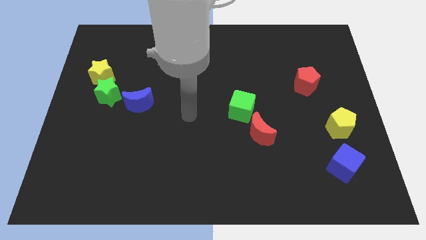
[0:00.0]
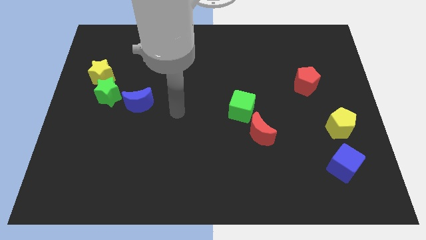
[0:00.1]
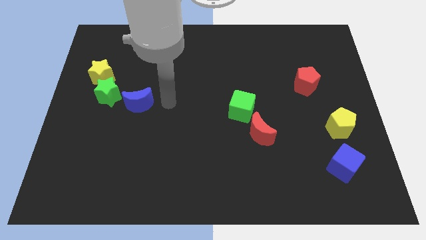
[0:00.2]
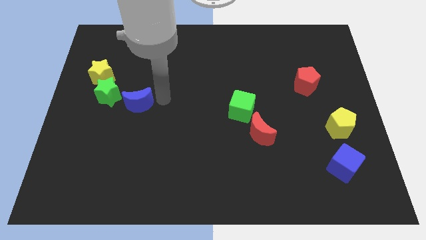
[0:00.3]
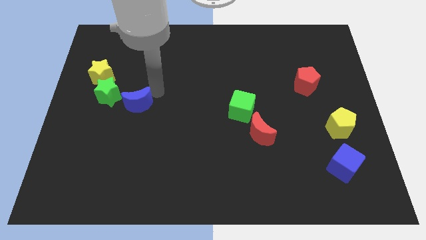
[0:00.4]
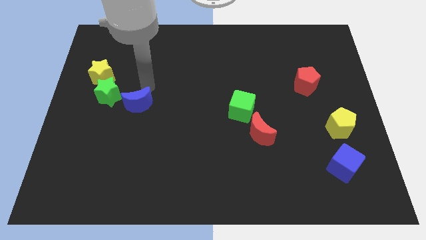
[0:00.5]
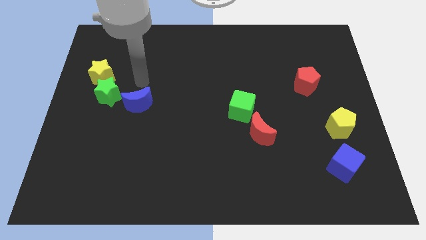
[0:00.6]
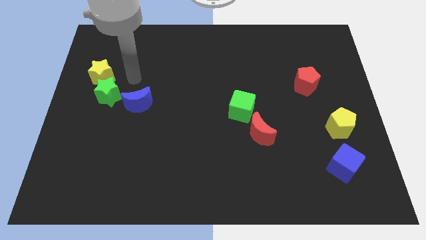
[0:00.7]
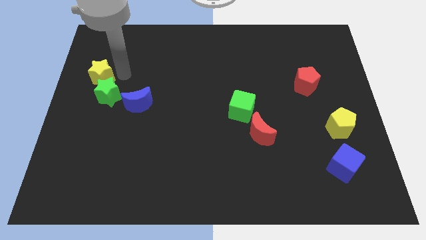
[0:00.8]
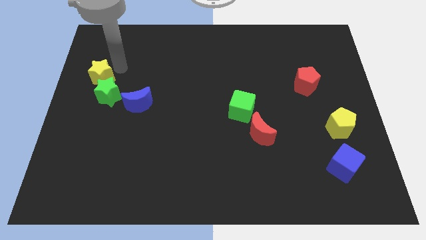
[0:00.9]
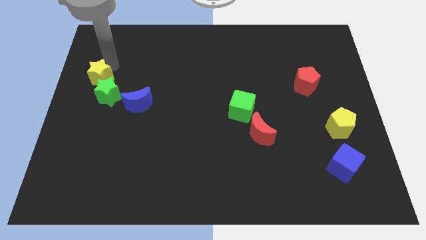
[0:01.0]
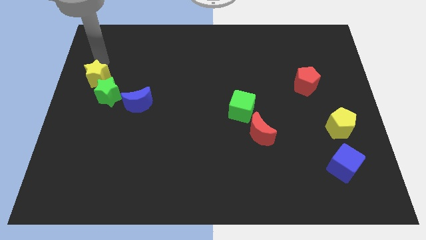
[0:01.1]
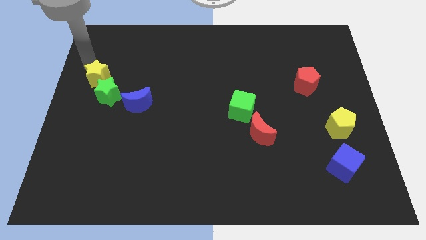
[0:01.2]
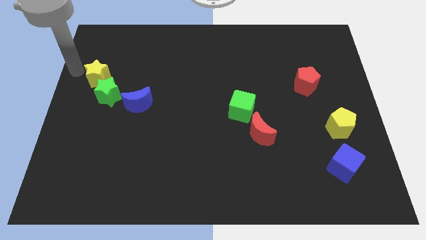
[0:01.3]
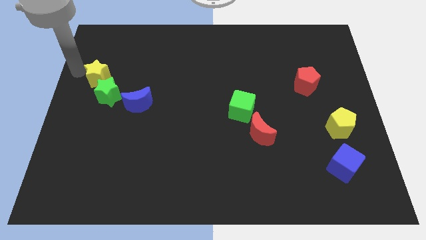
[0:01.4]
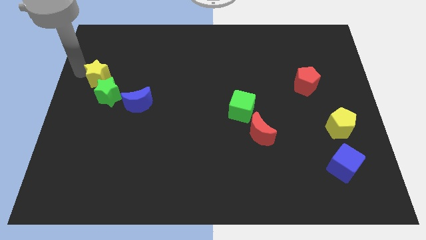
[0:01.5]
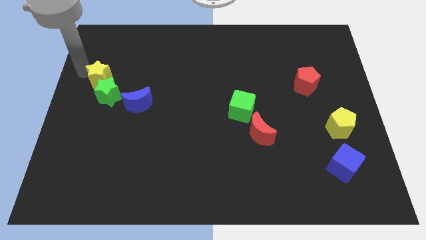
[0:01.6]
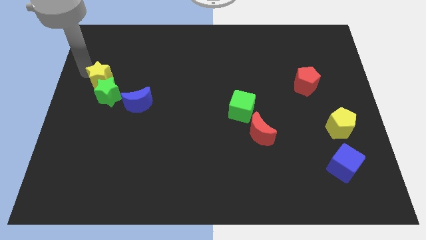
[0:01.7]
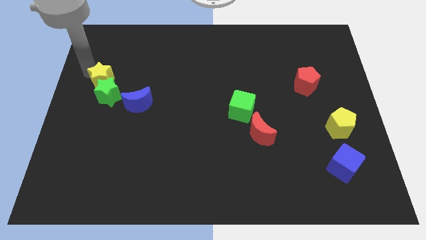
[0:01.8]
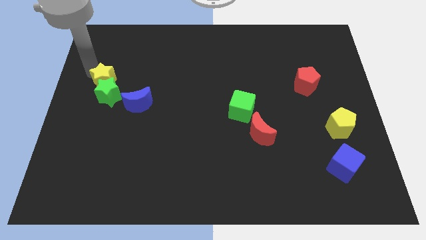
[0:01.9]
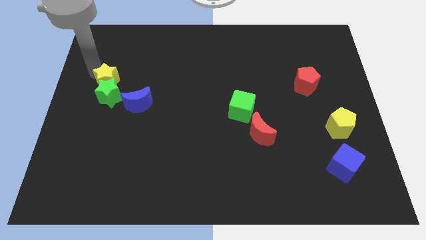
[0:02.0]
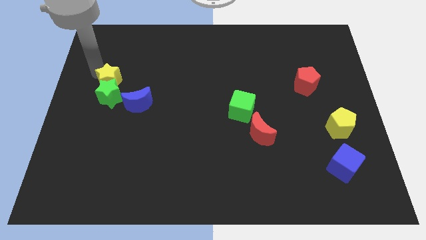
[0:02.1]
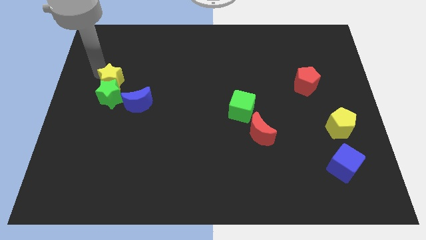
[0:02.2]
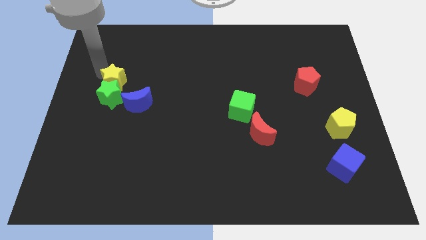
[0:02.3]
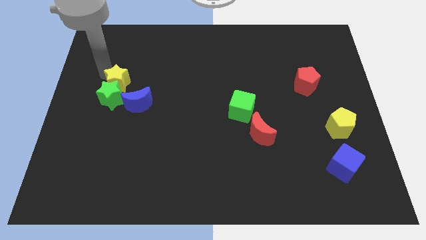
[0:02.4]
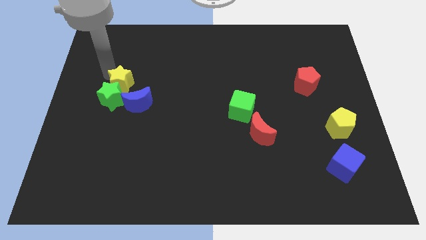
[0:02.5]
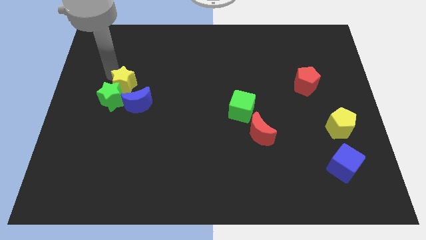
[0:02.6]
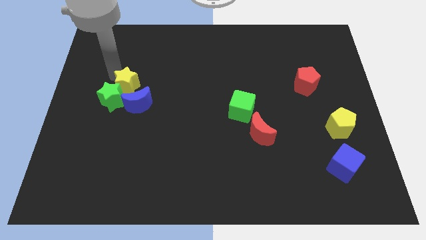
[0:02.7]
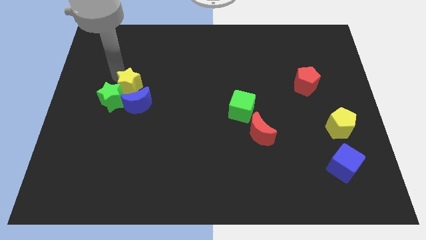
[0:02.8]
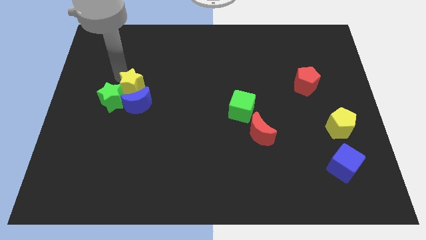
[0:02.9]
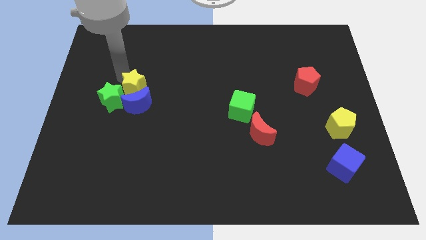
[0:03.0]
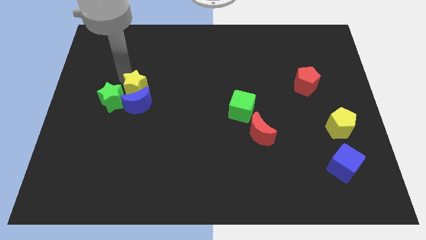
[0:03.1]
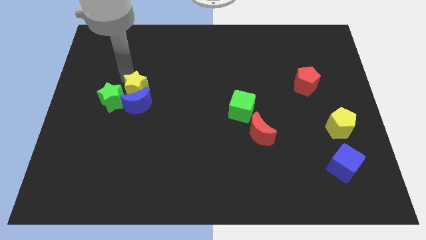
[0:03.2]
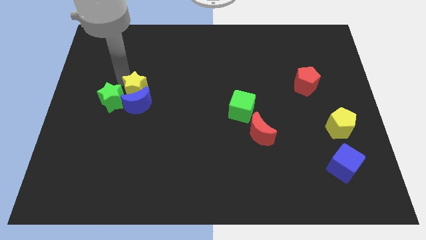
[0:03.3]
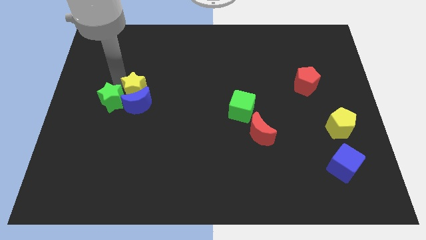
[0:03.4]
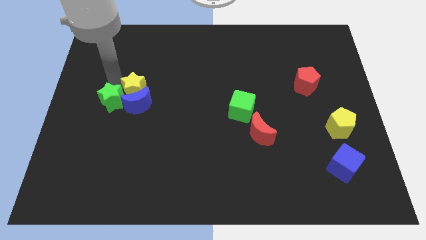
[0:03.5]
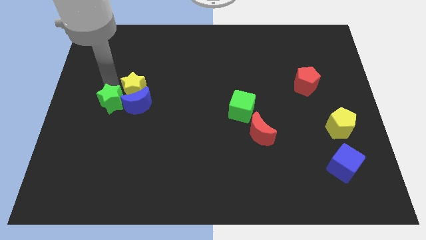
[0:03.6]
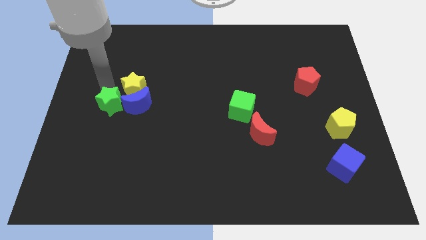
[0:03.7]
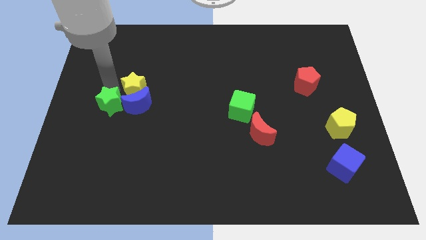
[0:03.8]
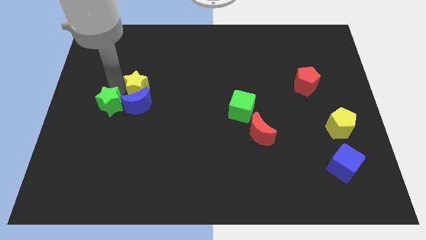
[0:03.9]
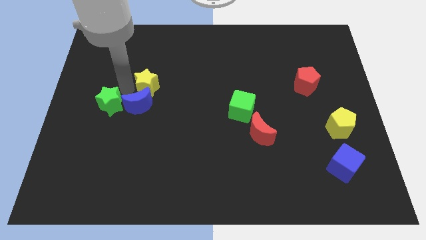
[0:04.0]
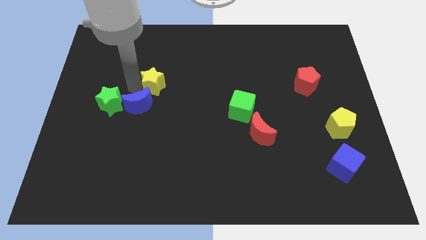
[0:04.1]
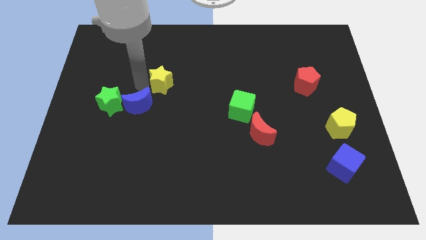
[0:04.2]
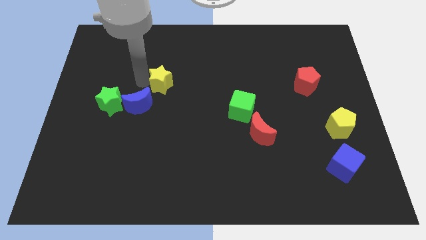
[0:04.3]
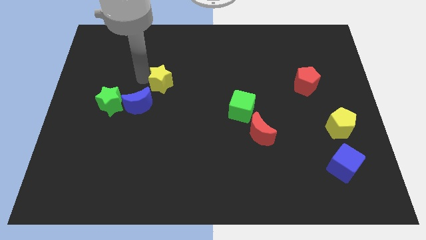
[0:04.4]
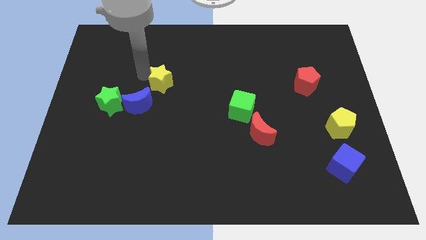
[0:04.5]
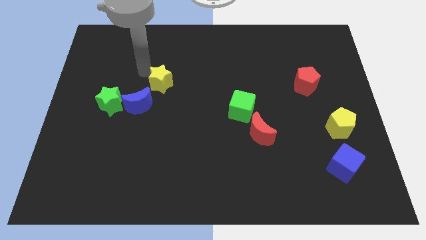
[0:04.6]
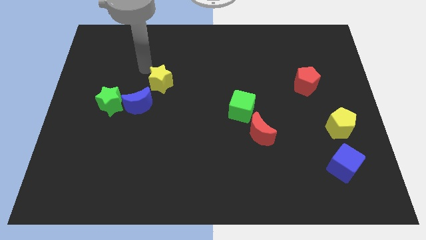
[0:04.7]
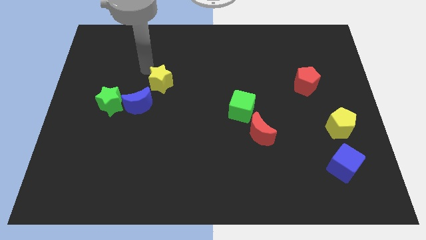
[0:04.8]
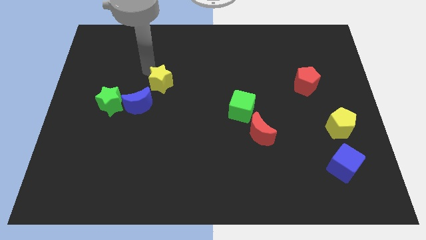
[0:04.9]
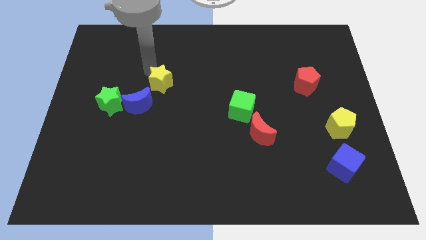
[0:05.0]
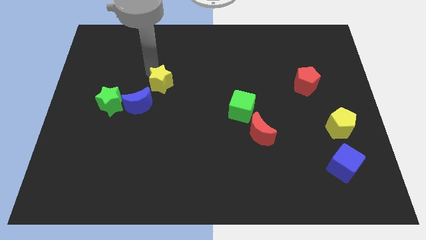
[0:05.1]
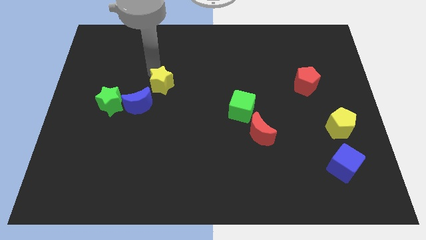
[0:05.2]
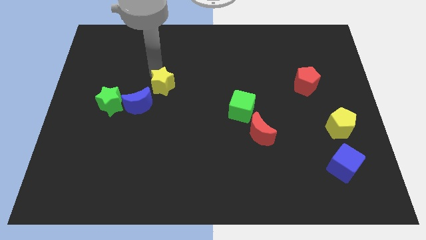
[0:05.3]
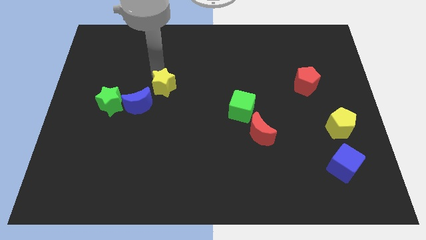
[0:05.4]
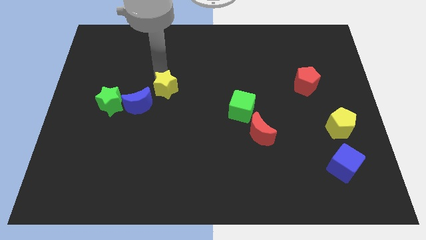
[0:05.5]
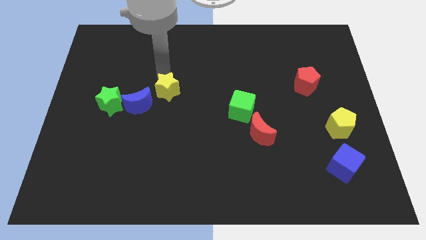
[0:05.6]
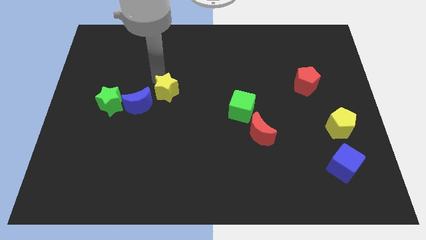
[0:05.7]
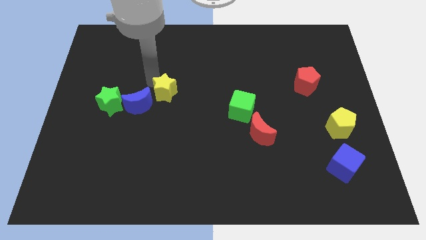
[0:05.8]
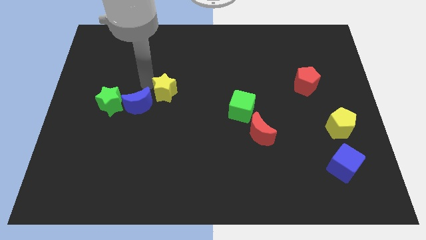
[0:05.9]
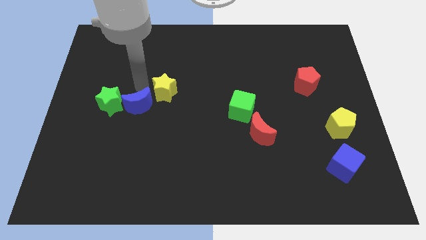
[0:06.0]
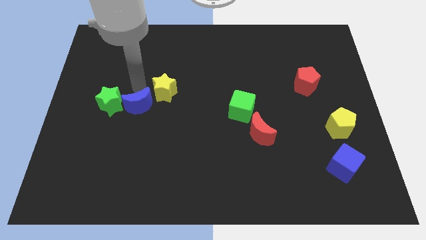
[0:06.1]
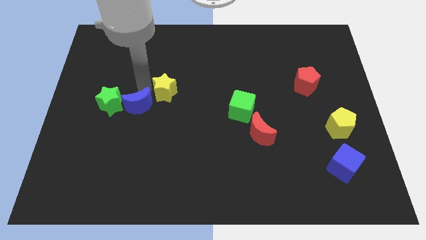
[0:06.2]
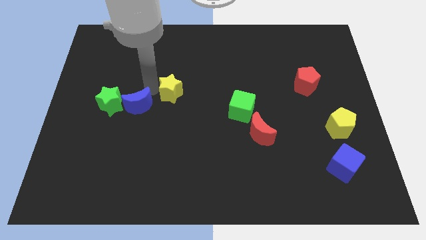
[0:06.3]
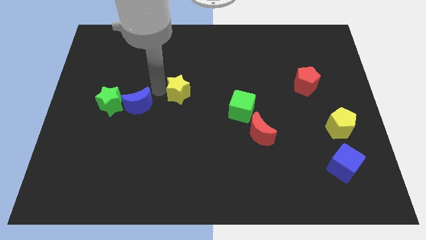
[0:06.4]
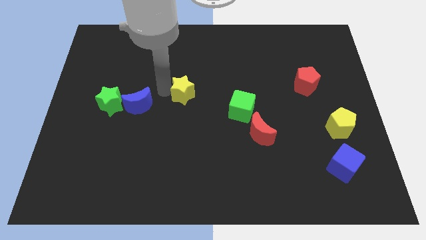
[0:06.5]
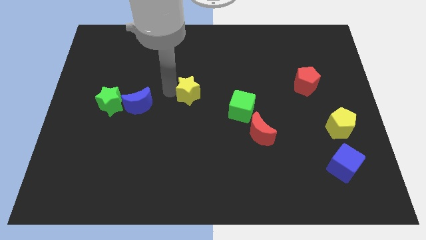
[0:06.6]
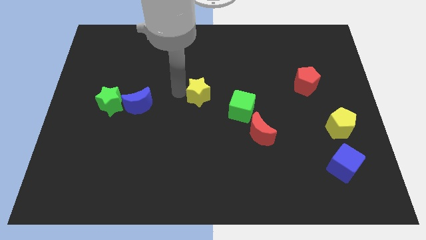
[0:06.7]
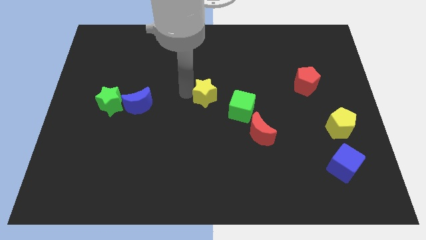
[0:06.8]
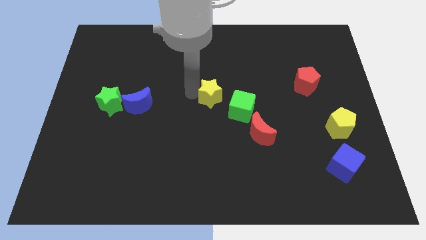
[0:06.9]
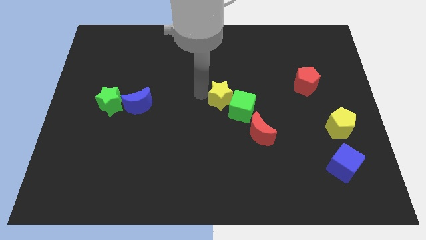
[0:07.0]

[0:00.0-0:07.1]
push the yellow star to the green cube

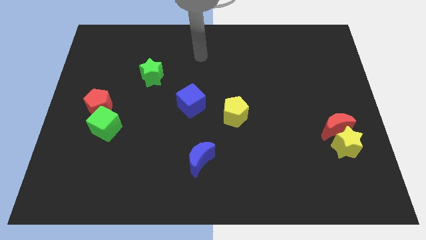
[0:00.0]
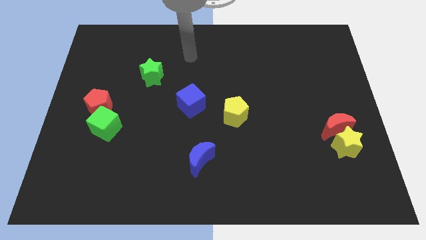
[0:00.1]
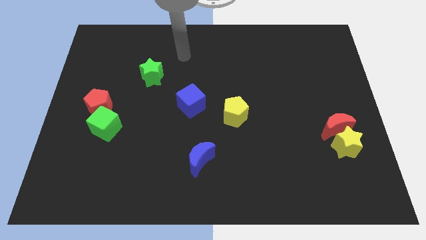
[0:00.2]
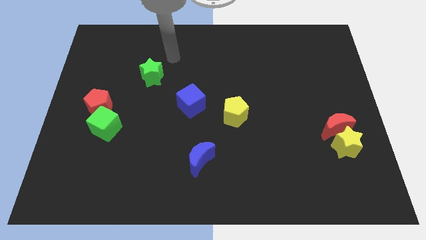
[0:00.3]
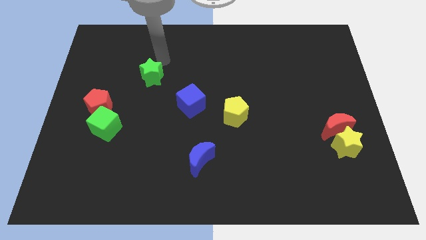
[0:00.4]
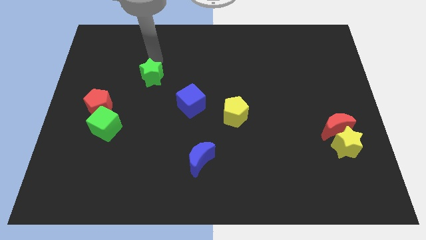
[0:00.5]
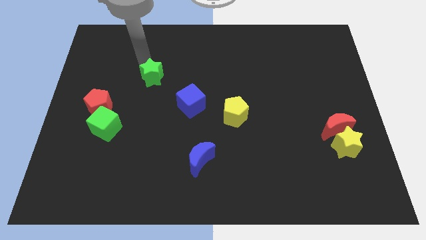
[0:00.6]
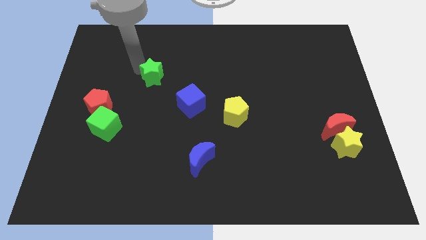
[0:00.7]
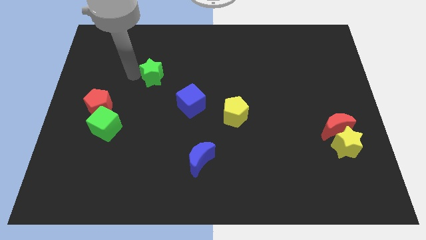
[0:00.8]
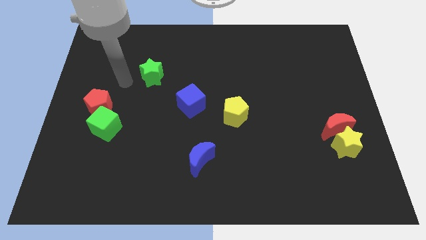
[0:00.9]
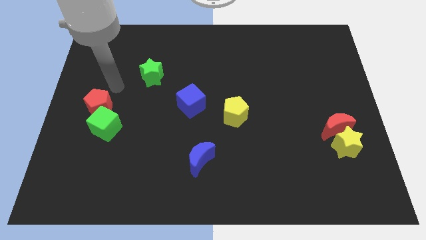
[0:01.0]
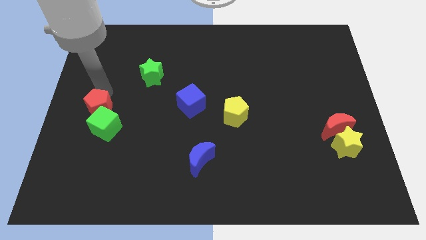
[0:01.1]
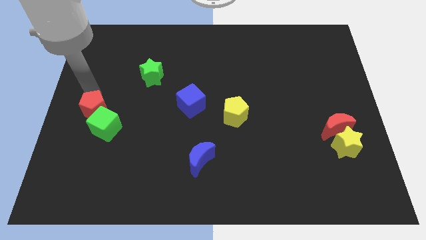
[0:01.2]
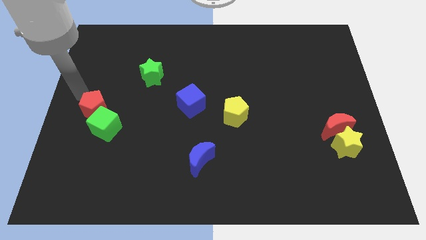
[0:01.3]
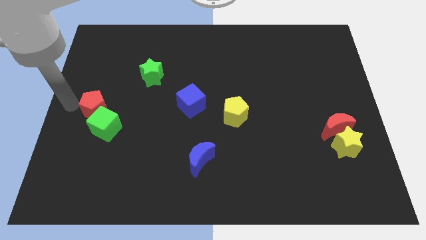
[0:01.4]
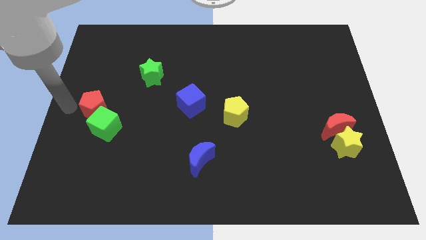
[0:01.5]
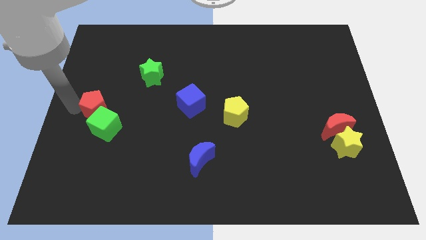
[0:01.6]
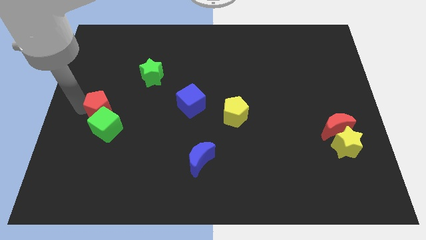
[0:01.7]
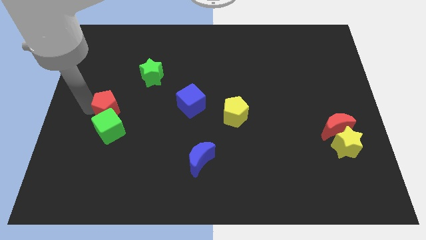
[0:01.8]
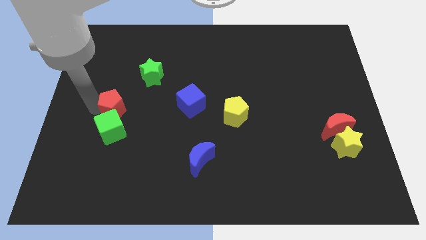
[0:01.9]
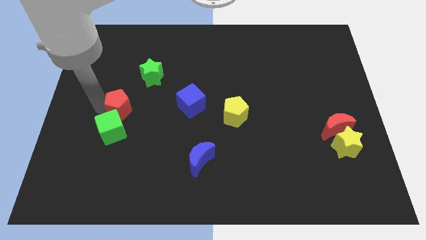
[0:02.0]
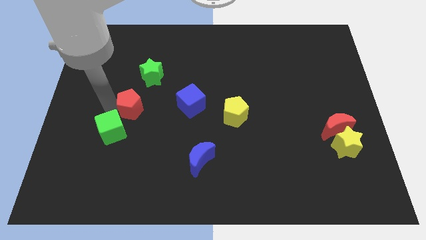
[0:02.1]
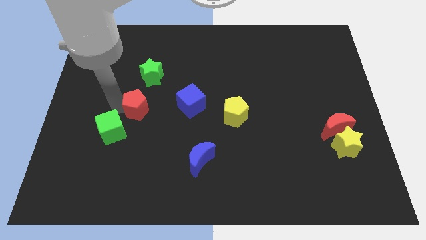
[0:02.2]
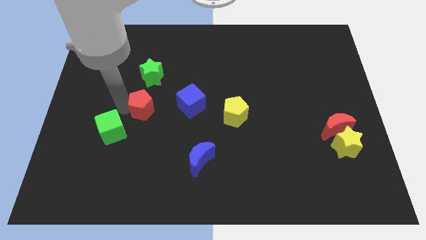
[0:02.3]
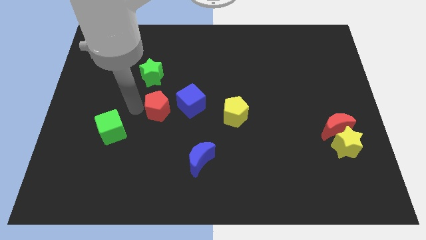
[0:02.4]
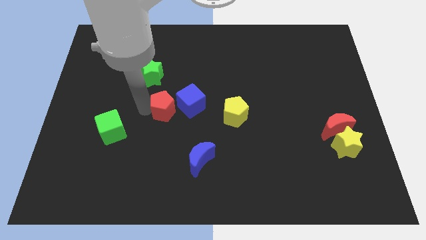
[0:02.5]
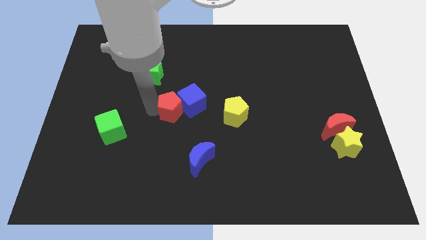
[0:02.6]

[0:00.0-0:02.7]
put the red pentagon towards the blue cube
